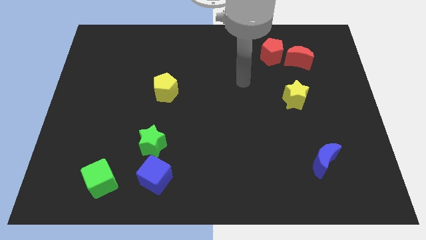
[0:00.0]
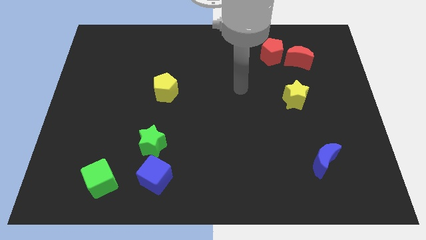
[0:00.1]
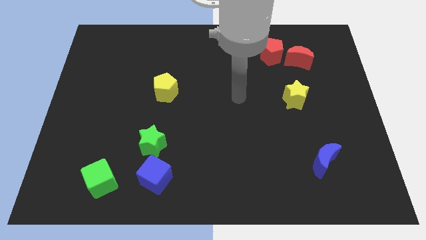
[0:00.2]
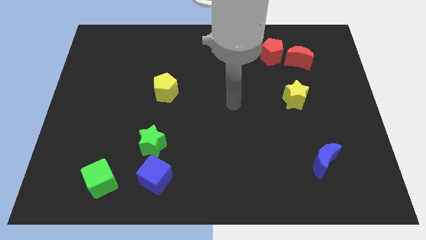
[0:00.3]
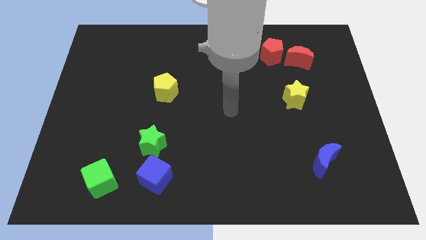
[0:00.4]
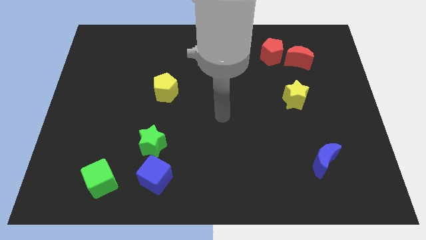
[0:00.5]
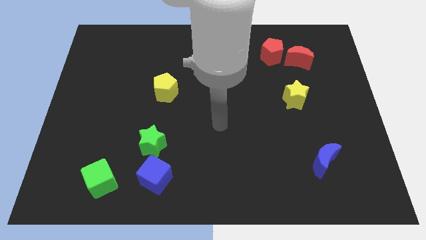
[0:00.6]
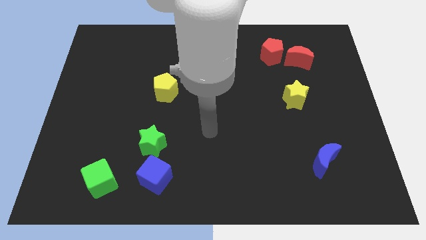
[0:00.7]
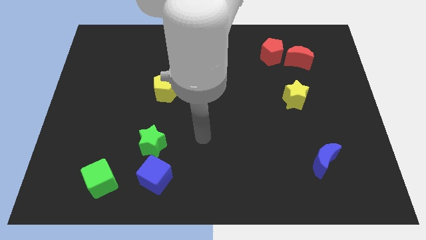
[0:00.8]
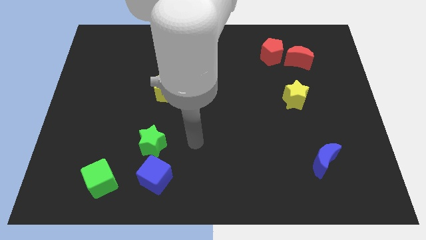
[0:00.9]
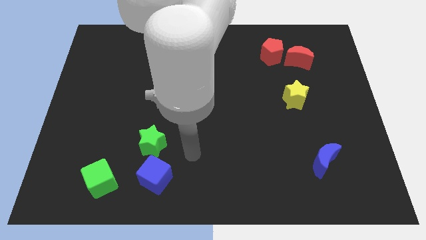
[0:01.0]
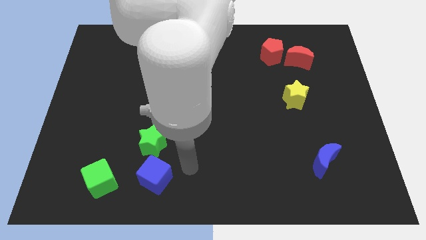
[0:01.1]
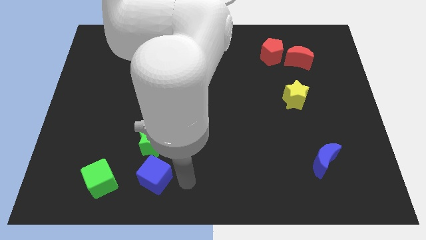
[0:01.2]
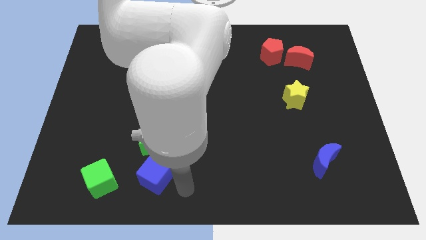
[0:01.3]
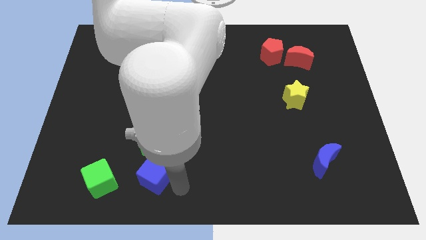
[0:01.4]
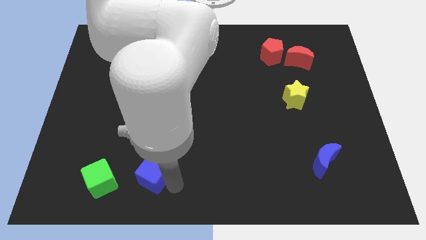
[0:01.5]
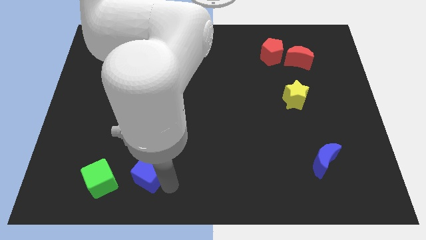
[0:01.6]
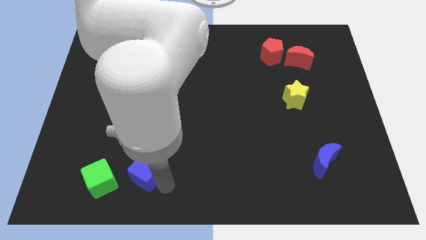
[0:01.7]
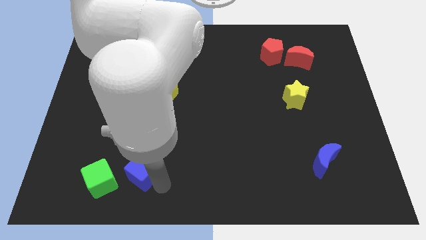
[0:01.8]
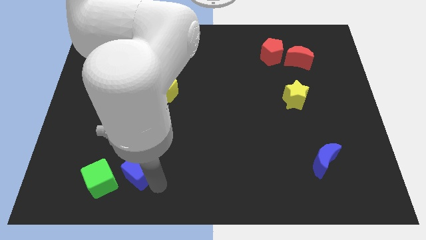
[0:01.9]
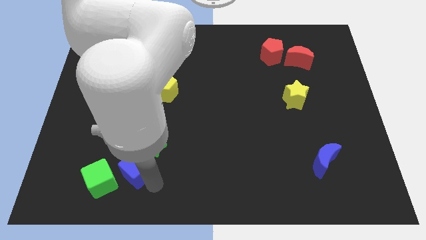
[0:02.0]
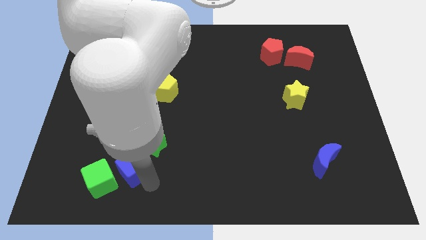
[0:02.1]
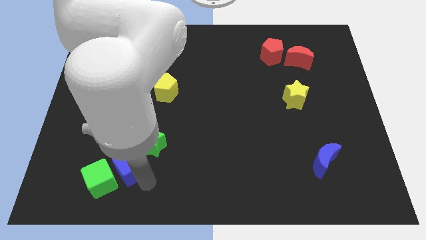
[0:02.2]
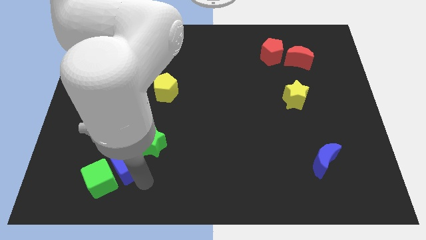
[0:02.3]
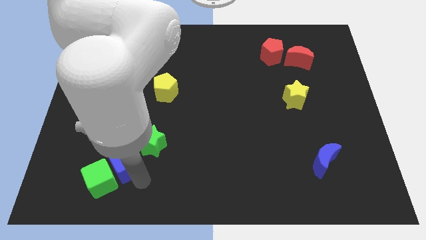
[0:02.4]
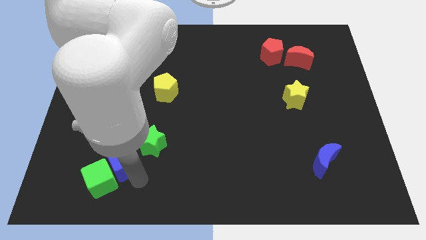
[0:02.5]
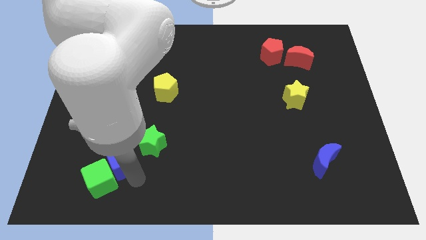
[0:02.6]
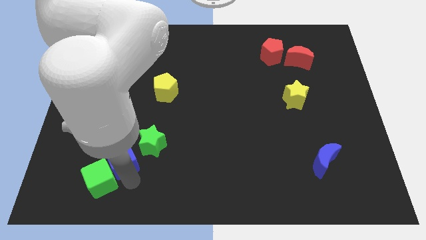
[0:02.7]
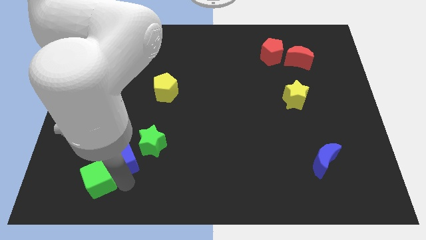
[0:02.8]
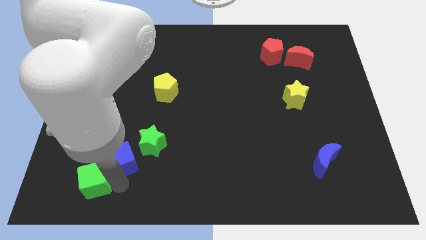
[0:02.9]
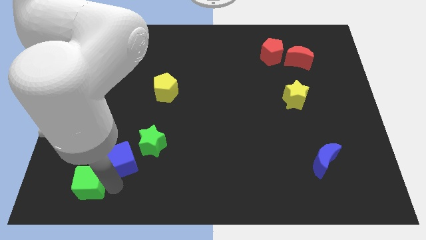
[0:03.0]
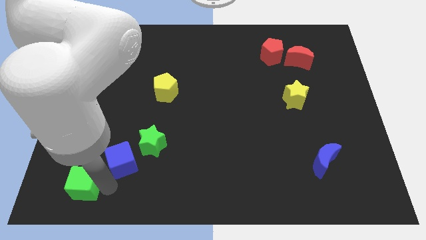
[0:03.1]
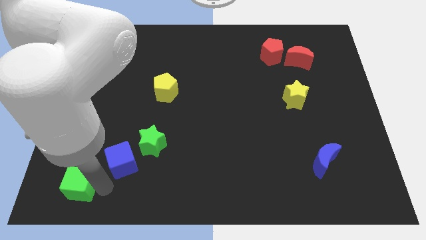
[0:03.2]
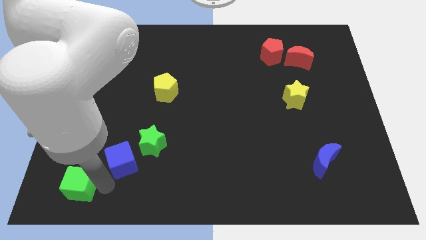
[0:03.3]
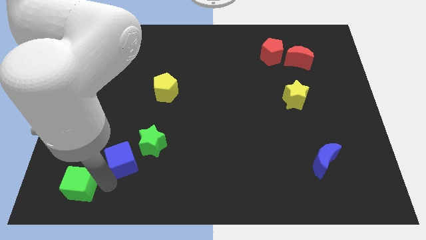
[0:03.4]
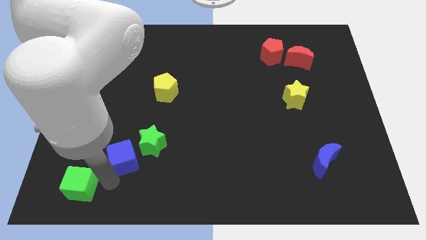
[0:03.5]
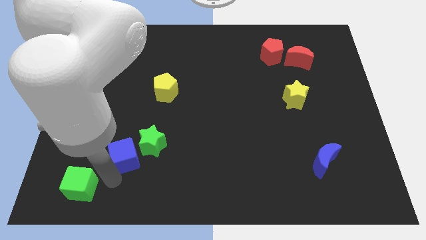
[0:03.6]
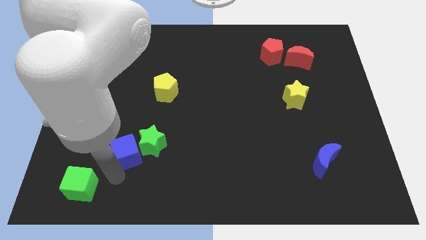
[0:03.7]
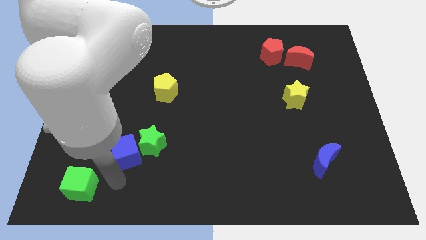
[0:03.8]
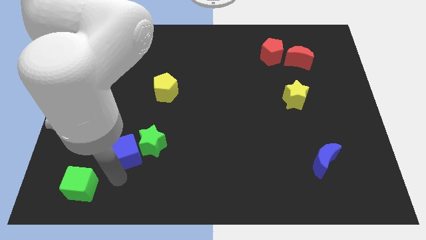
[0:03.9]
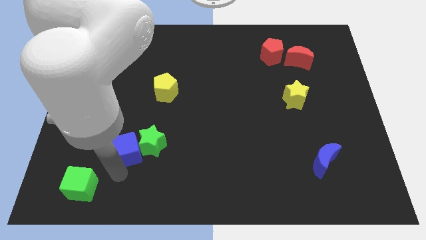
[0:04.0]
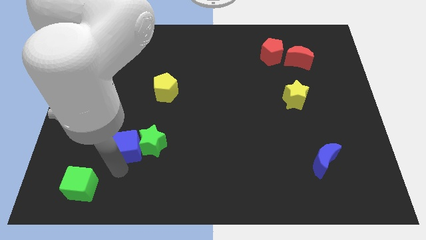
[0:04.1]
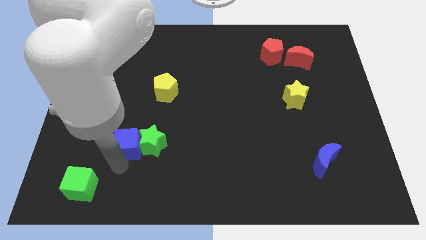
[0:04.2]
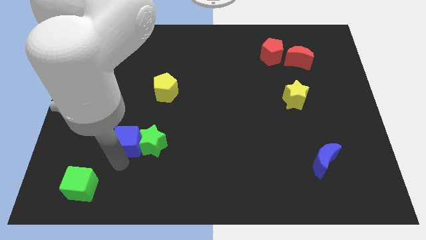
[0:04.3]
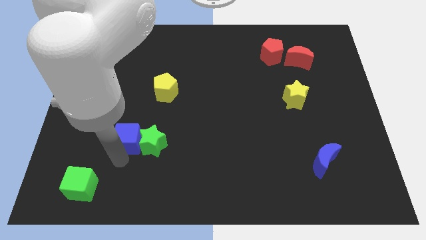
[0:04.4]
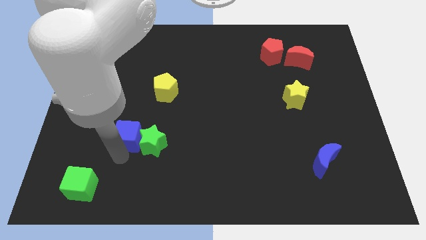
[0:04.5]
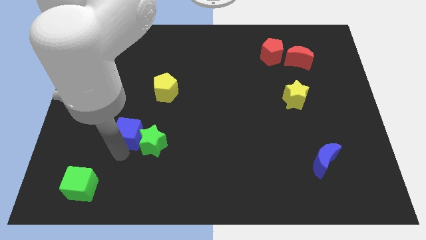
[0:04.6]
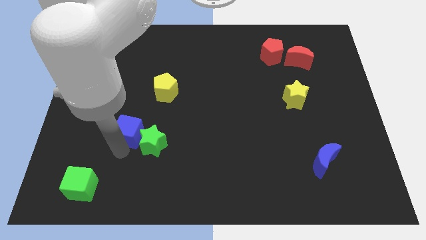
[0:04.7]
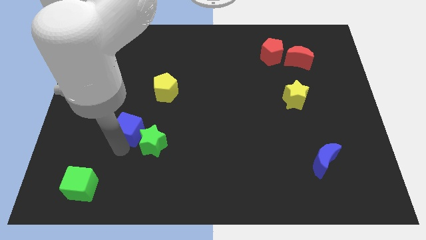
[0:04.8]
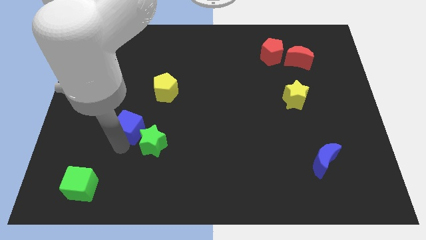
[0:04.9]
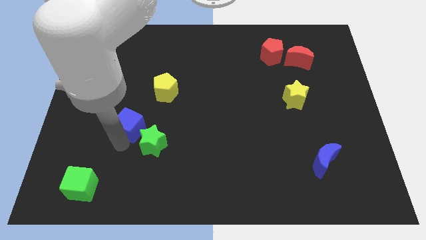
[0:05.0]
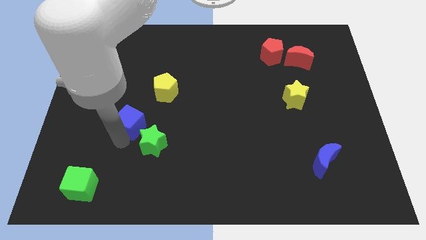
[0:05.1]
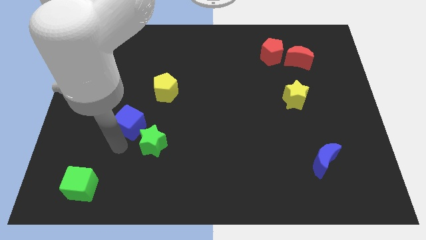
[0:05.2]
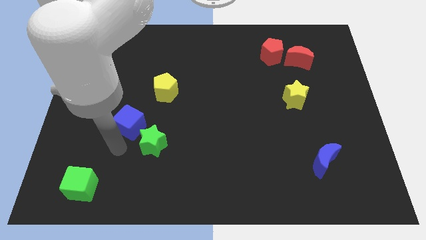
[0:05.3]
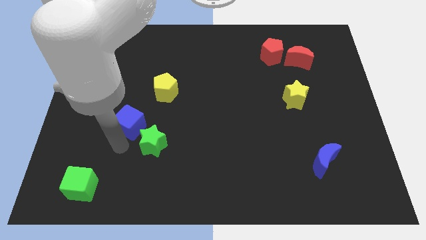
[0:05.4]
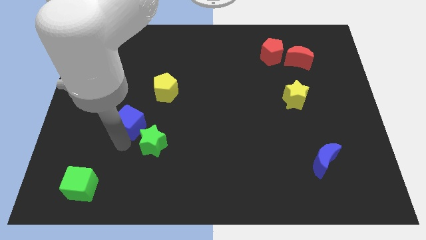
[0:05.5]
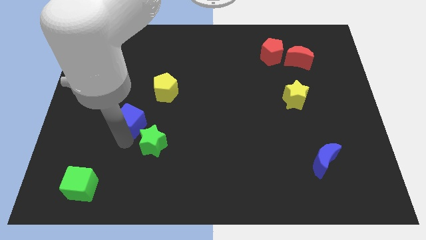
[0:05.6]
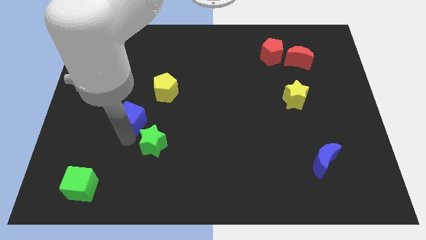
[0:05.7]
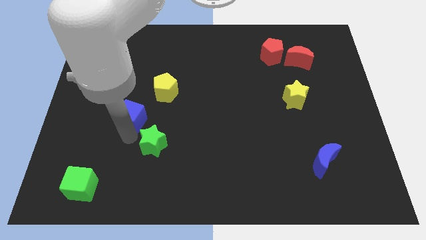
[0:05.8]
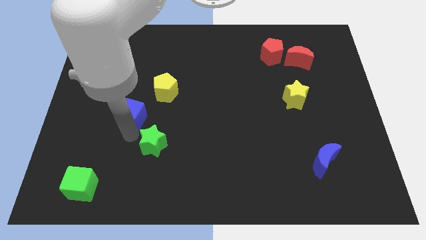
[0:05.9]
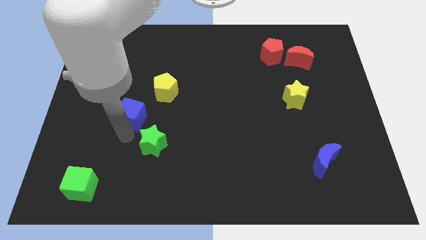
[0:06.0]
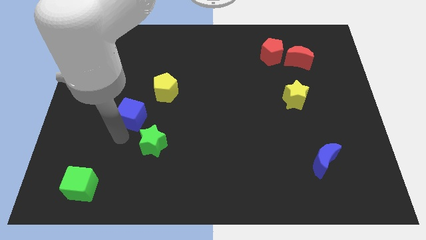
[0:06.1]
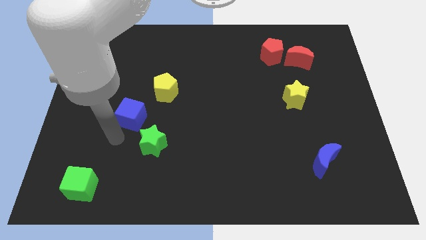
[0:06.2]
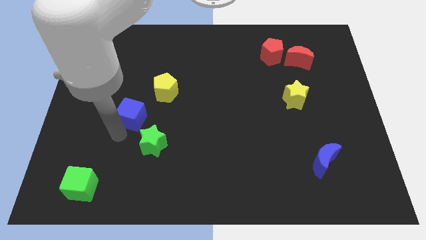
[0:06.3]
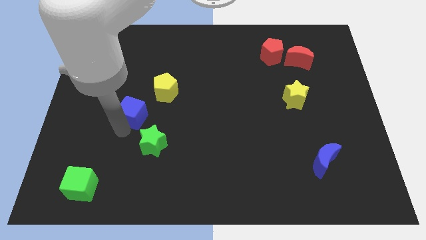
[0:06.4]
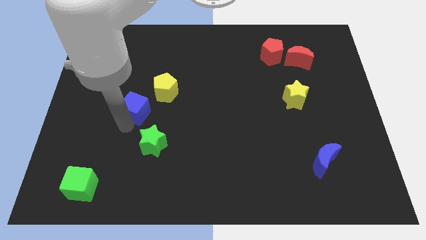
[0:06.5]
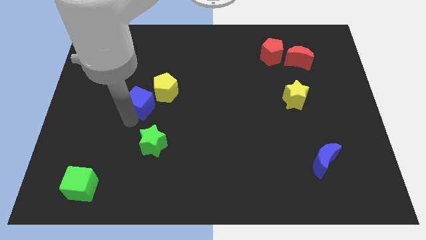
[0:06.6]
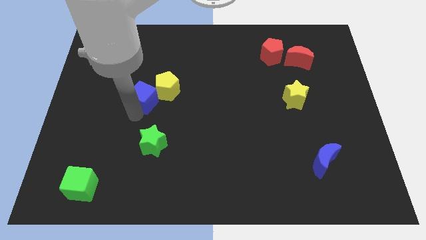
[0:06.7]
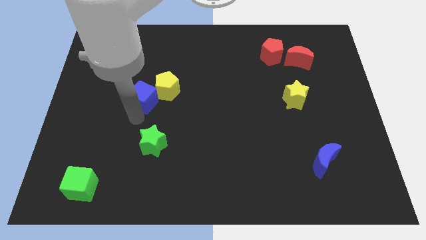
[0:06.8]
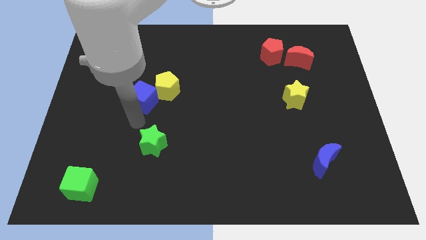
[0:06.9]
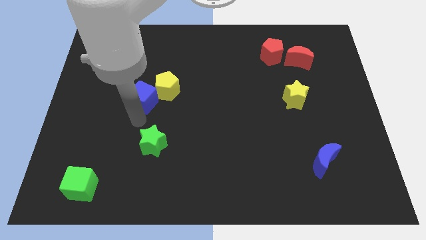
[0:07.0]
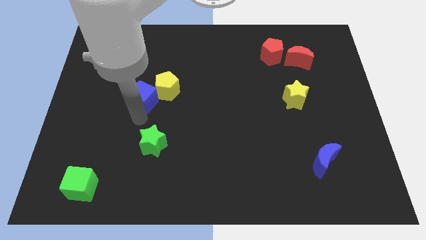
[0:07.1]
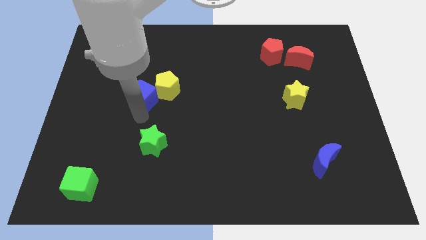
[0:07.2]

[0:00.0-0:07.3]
push the blue cube up

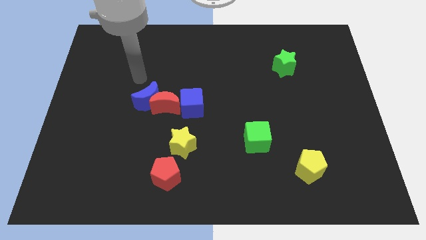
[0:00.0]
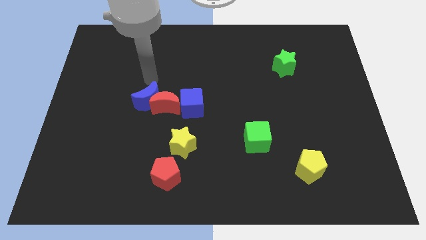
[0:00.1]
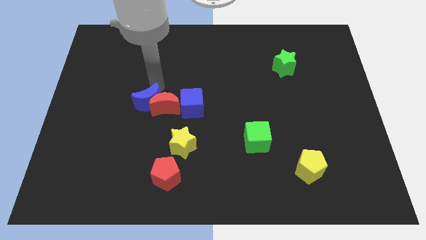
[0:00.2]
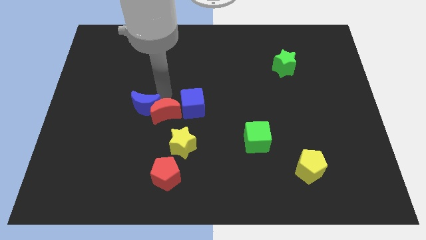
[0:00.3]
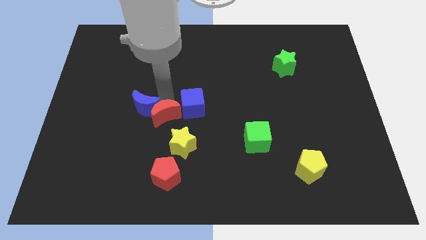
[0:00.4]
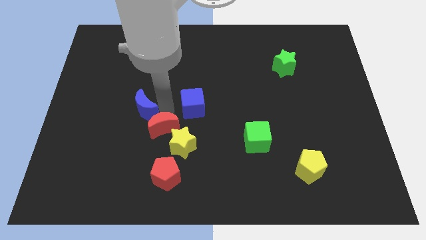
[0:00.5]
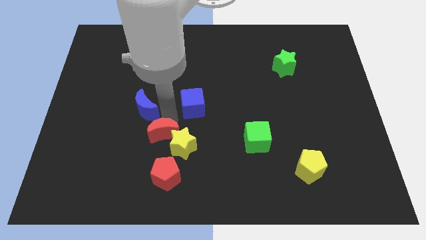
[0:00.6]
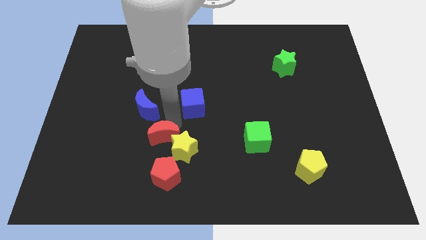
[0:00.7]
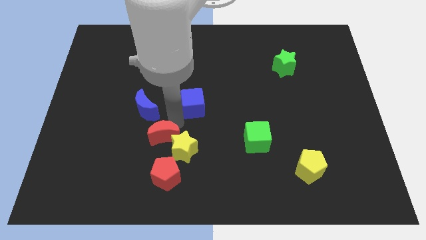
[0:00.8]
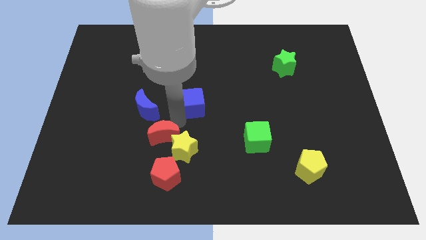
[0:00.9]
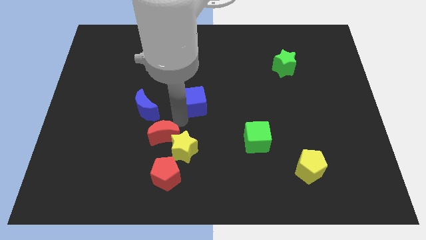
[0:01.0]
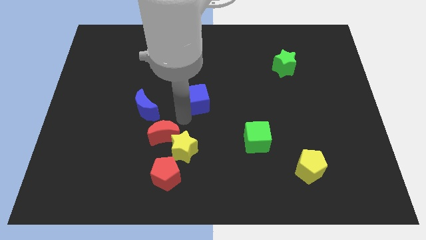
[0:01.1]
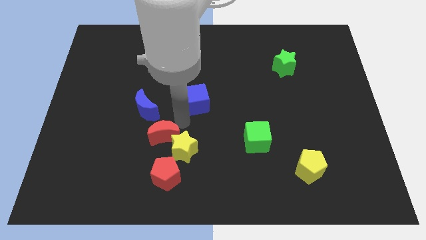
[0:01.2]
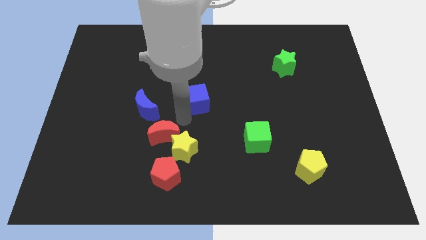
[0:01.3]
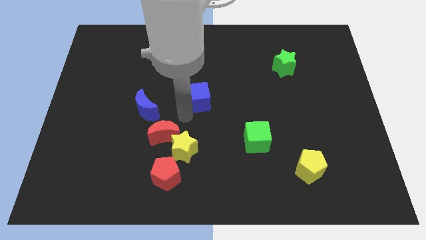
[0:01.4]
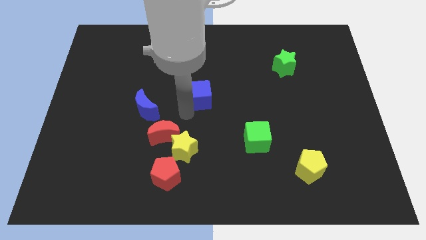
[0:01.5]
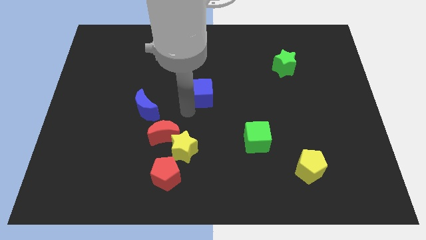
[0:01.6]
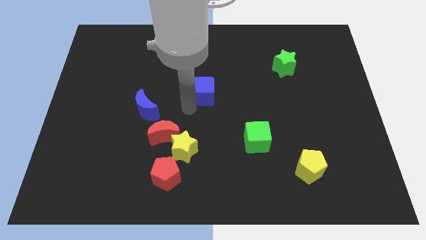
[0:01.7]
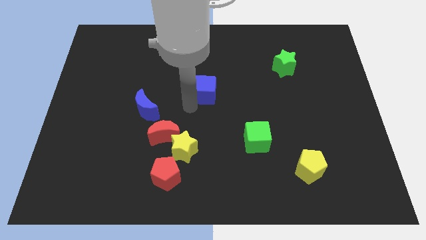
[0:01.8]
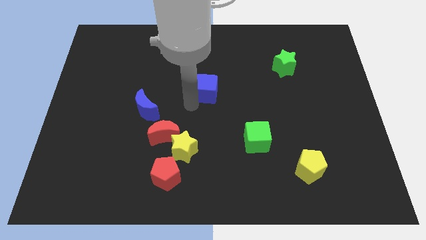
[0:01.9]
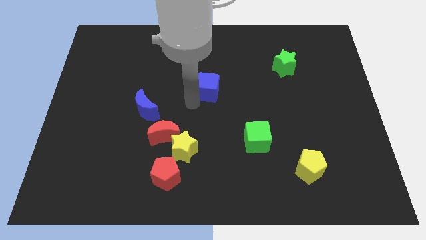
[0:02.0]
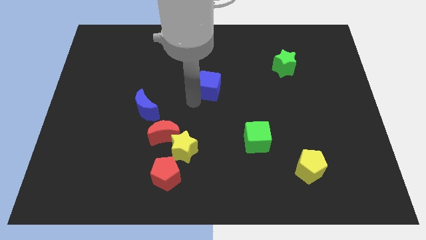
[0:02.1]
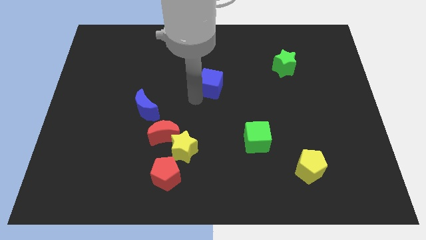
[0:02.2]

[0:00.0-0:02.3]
slightly push the blue cube upwards and right
